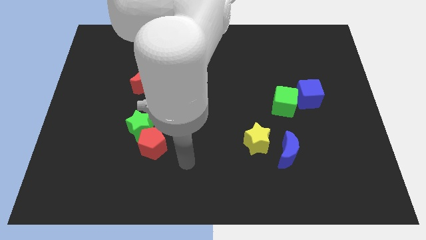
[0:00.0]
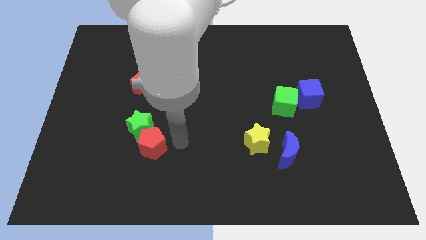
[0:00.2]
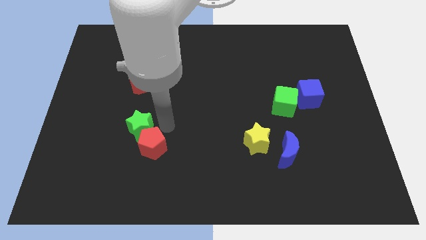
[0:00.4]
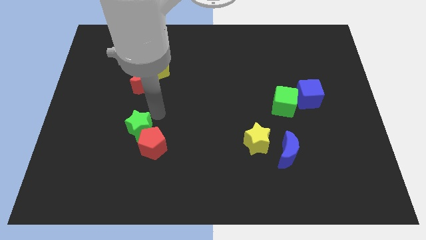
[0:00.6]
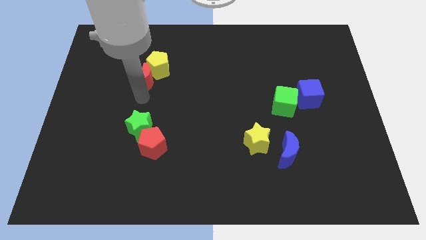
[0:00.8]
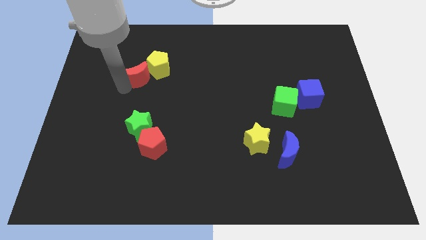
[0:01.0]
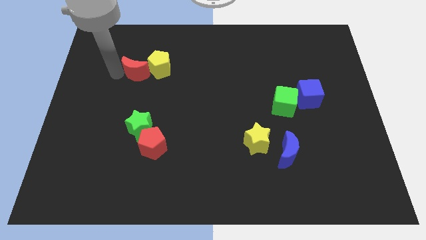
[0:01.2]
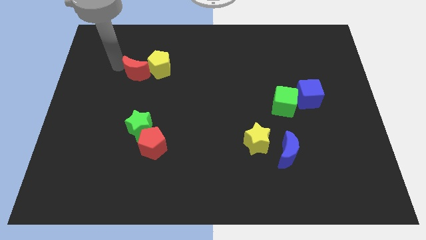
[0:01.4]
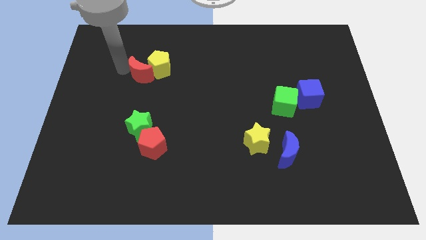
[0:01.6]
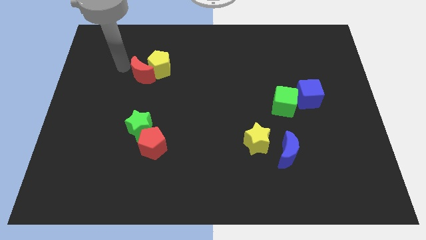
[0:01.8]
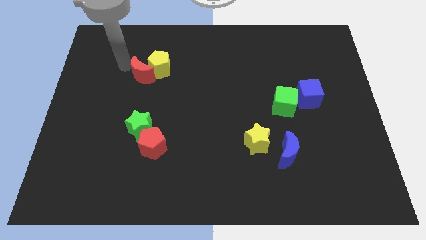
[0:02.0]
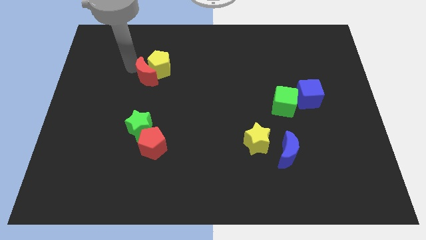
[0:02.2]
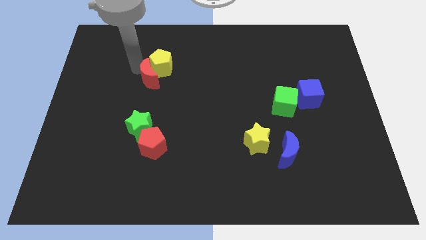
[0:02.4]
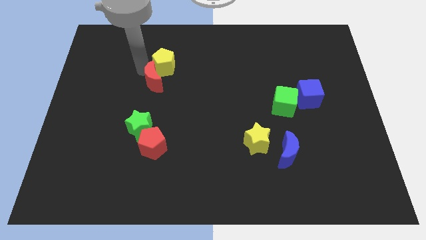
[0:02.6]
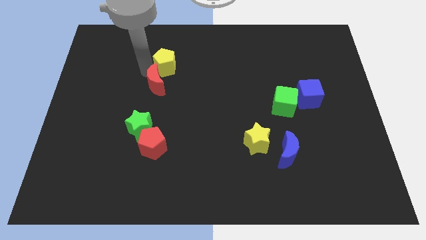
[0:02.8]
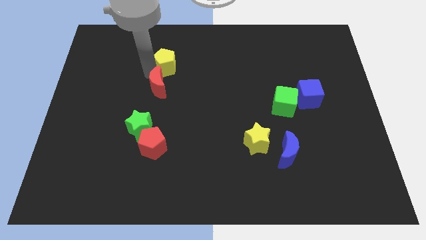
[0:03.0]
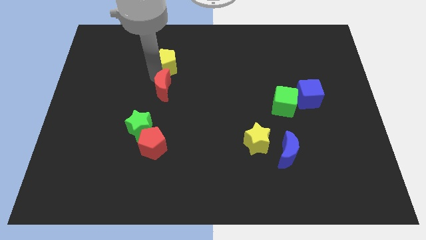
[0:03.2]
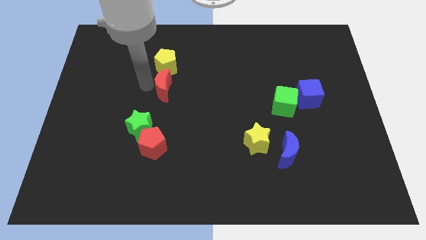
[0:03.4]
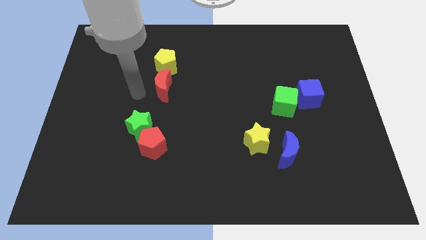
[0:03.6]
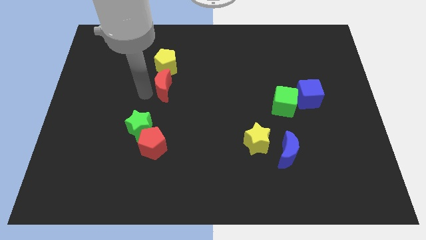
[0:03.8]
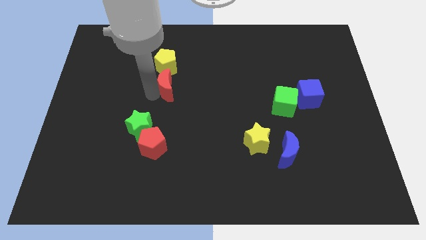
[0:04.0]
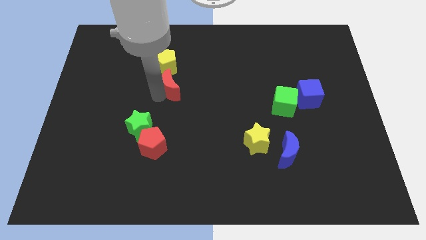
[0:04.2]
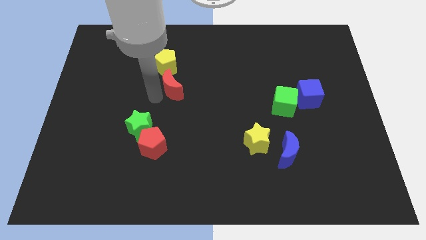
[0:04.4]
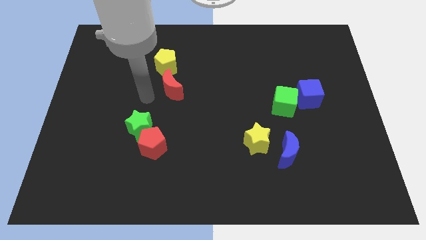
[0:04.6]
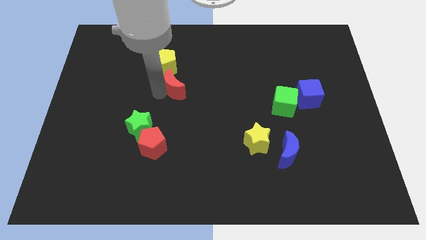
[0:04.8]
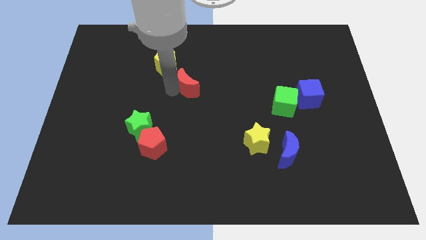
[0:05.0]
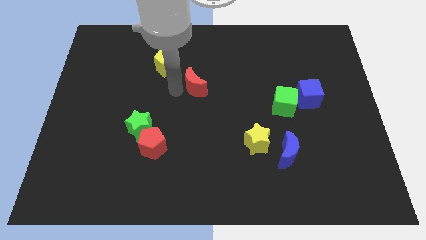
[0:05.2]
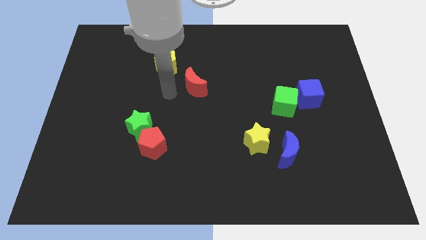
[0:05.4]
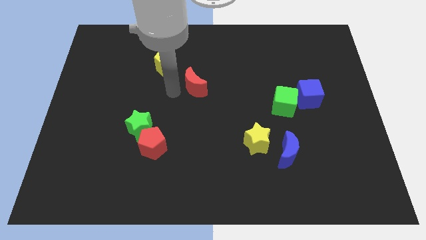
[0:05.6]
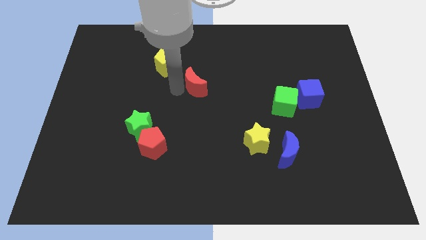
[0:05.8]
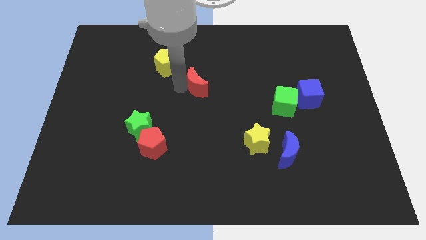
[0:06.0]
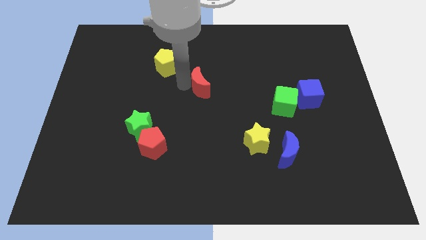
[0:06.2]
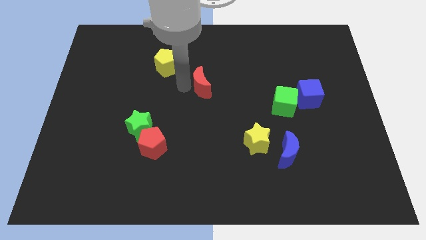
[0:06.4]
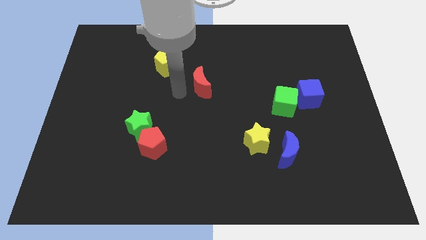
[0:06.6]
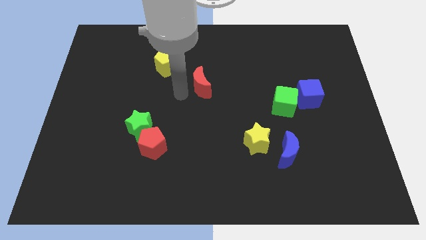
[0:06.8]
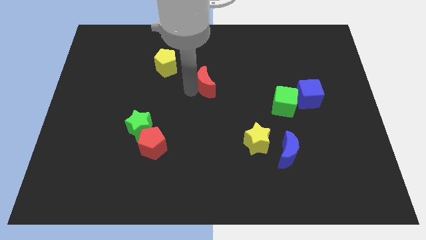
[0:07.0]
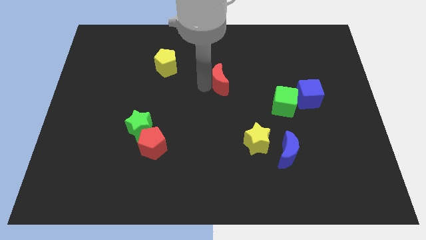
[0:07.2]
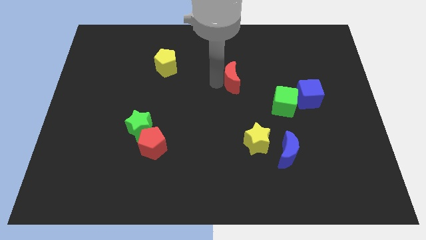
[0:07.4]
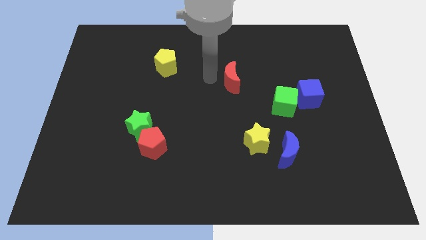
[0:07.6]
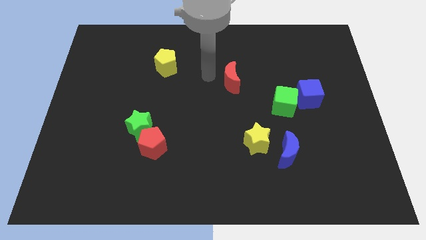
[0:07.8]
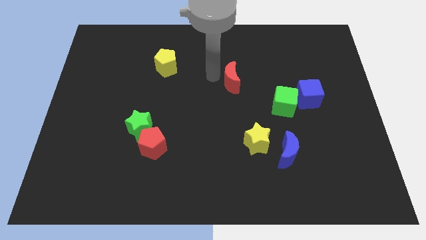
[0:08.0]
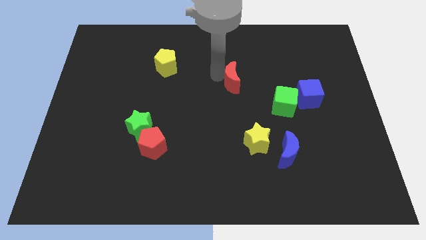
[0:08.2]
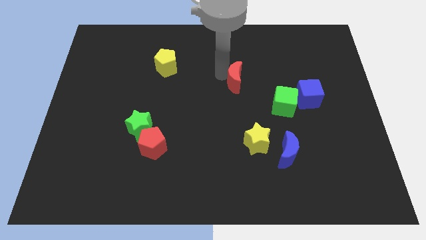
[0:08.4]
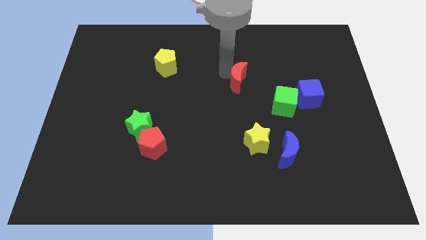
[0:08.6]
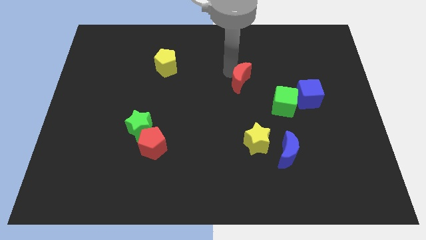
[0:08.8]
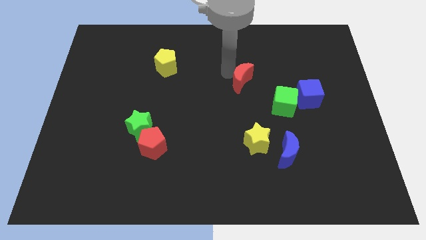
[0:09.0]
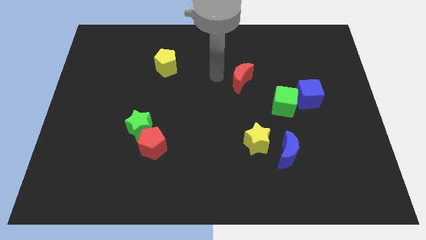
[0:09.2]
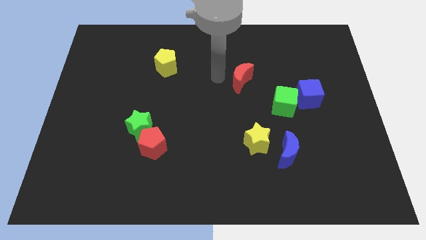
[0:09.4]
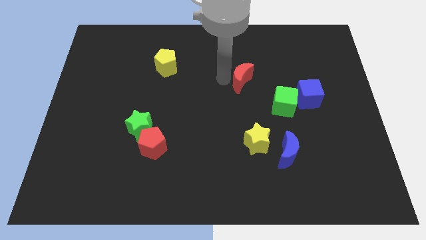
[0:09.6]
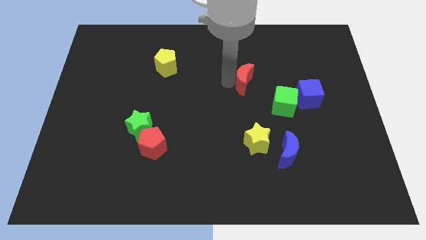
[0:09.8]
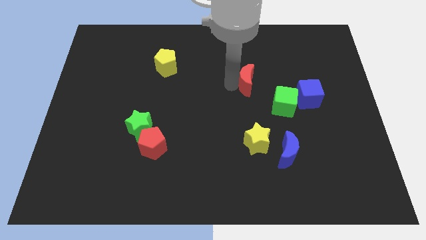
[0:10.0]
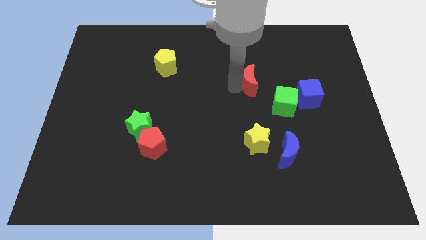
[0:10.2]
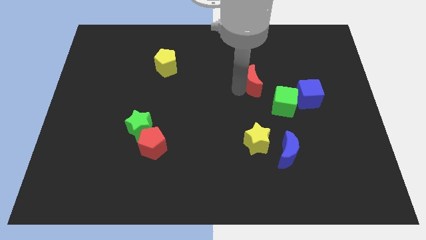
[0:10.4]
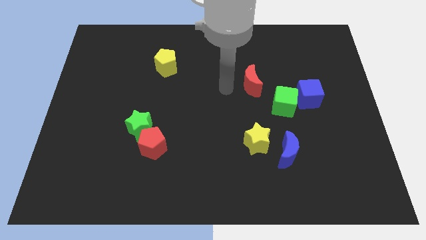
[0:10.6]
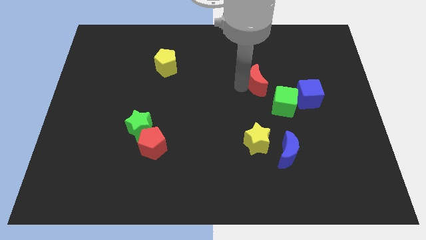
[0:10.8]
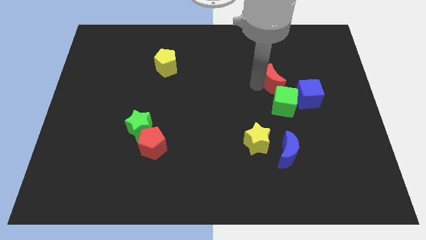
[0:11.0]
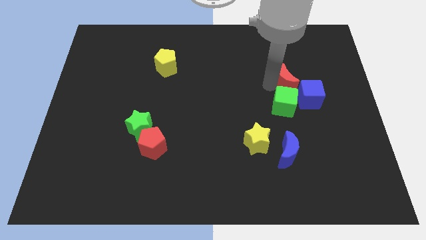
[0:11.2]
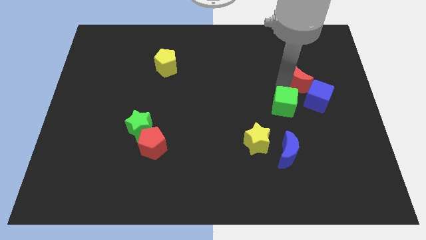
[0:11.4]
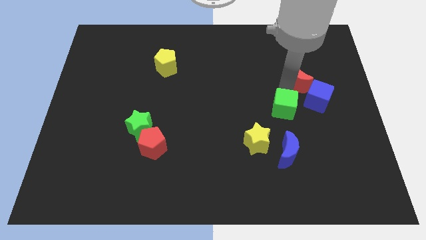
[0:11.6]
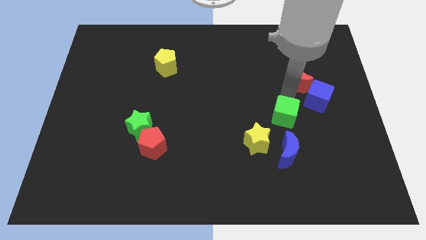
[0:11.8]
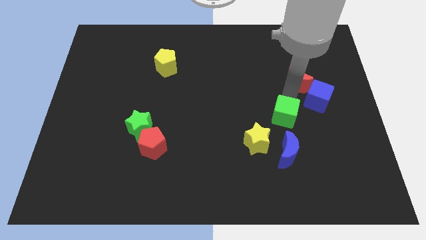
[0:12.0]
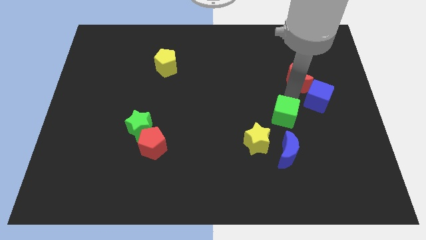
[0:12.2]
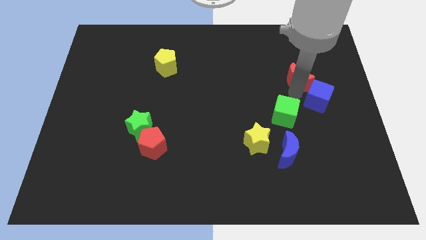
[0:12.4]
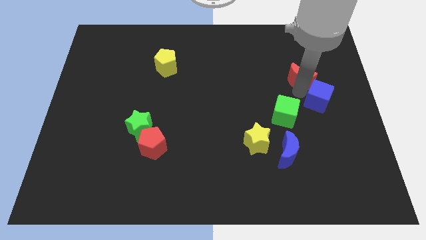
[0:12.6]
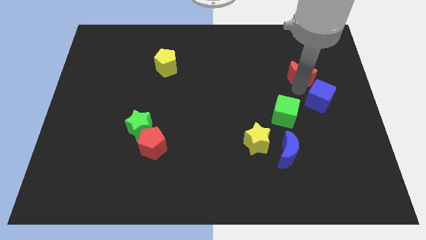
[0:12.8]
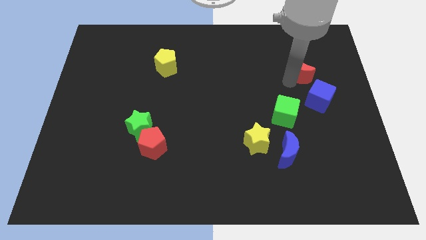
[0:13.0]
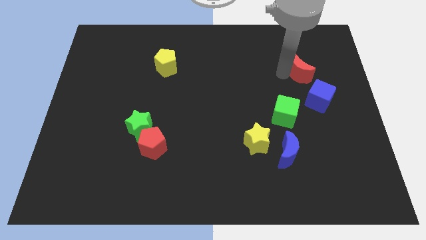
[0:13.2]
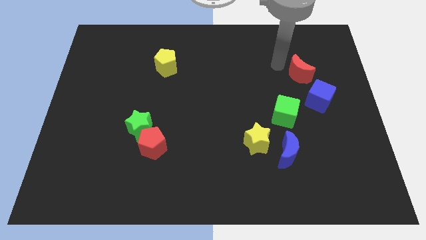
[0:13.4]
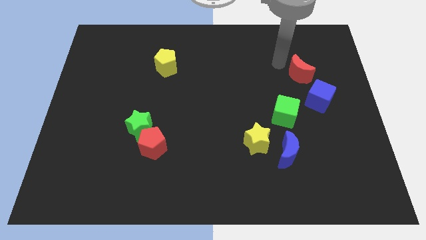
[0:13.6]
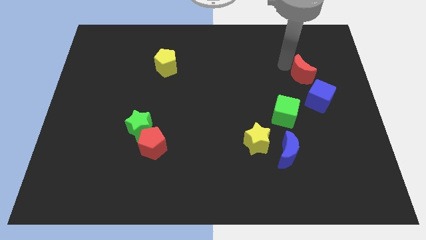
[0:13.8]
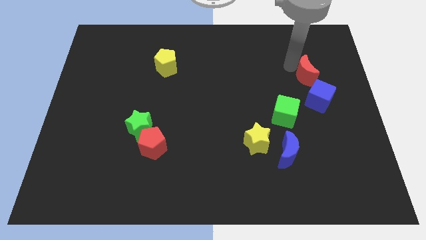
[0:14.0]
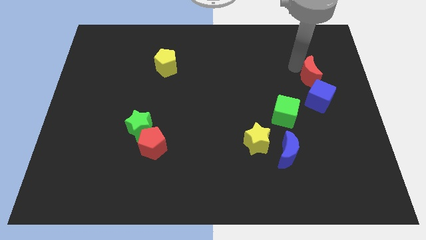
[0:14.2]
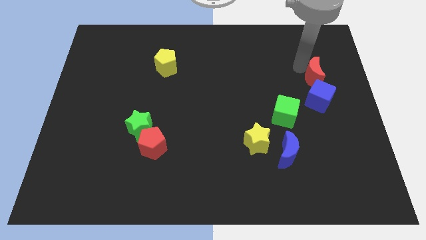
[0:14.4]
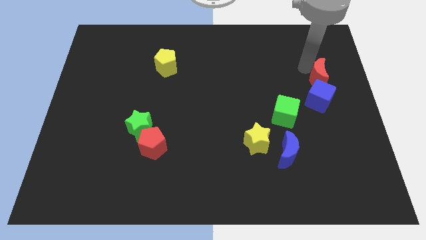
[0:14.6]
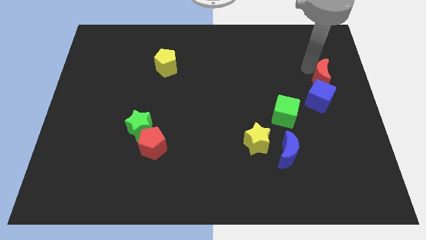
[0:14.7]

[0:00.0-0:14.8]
move the red moon to the right side
